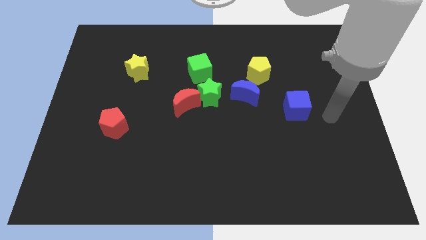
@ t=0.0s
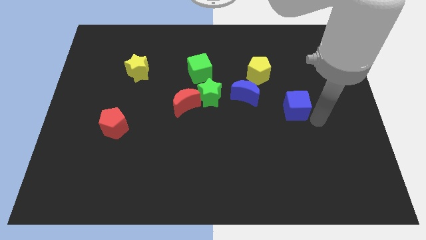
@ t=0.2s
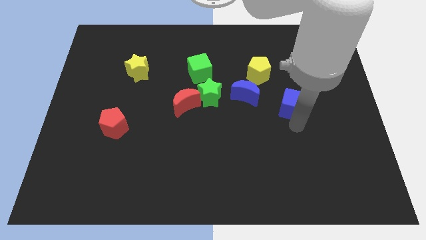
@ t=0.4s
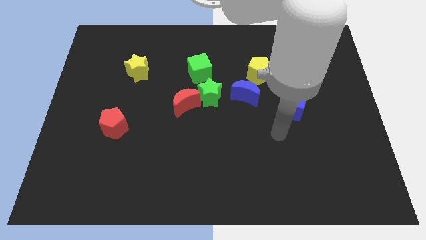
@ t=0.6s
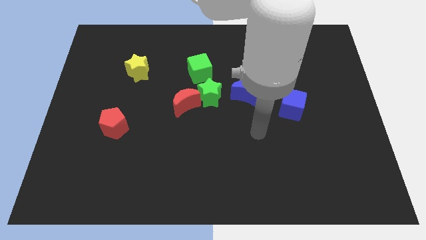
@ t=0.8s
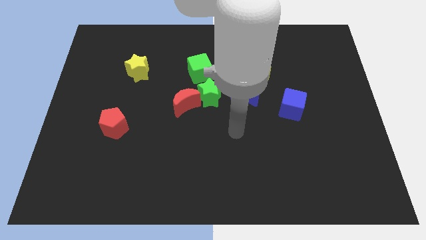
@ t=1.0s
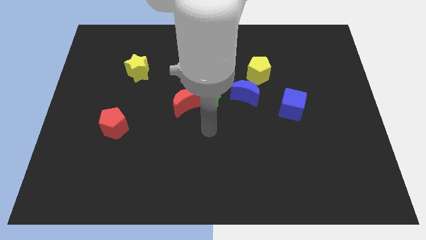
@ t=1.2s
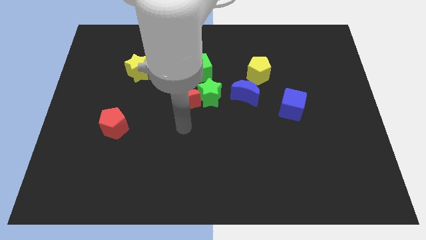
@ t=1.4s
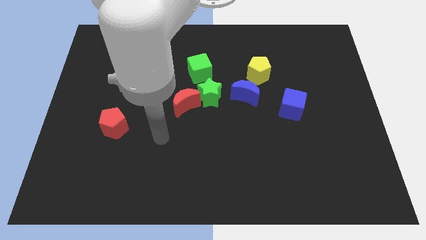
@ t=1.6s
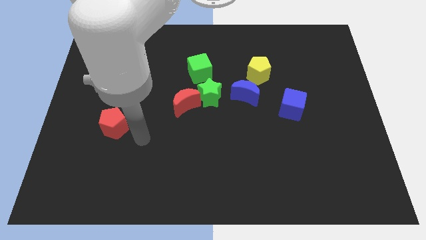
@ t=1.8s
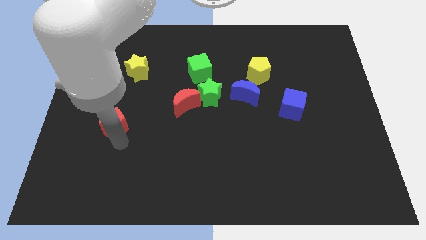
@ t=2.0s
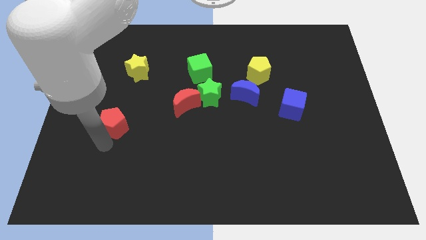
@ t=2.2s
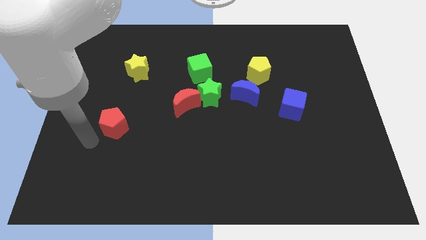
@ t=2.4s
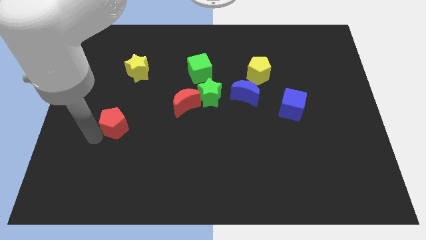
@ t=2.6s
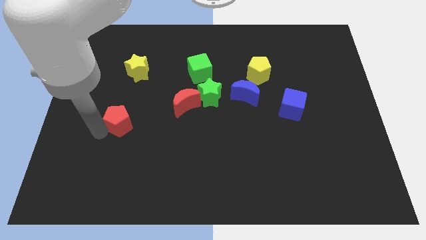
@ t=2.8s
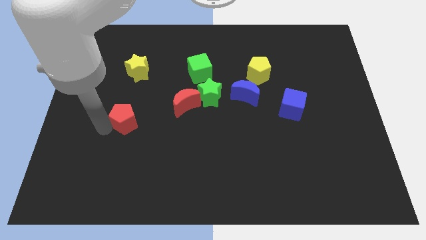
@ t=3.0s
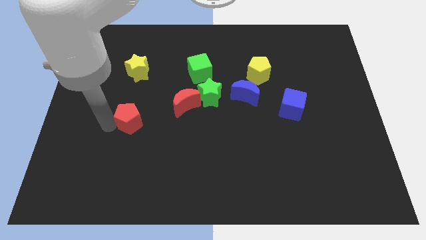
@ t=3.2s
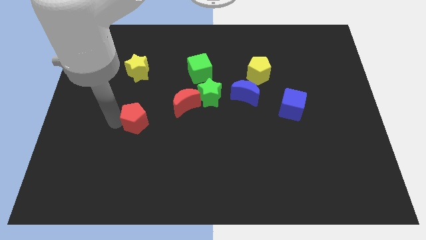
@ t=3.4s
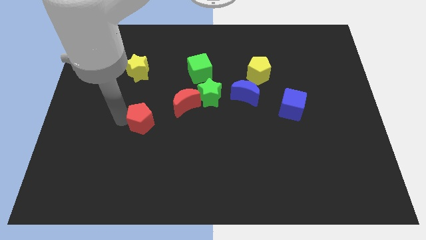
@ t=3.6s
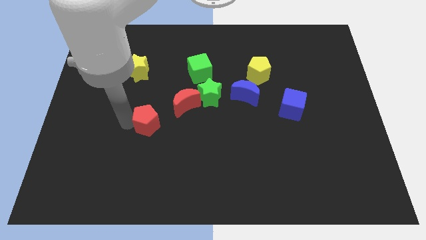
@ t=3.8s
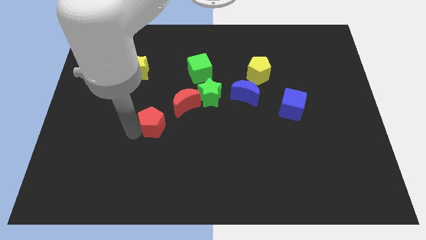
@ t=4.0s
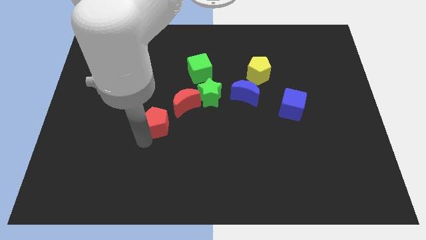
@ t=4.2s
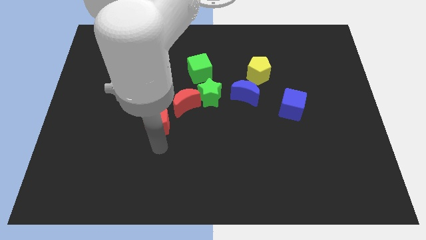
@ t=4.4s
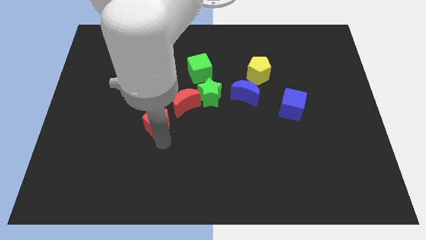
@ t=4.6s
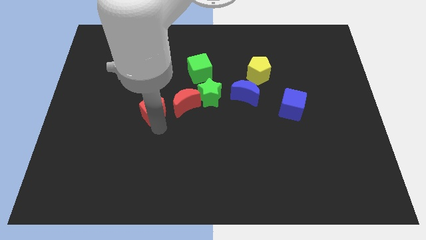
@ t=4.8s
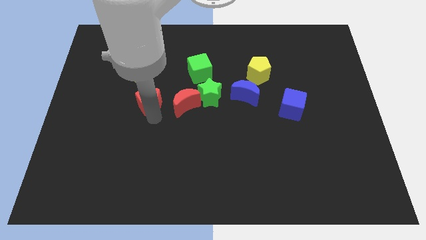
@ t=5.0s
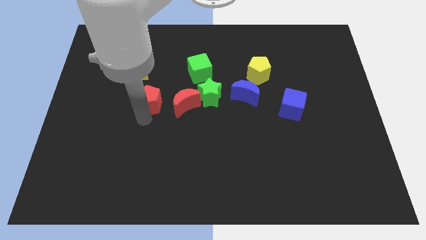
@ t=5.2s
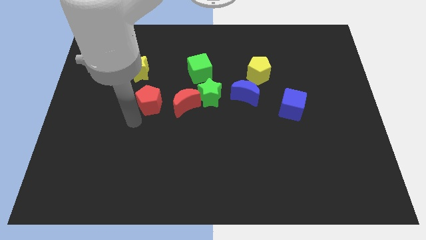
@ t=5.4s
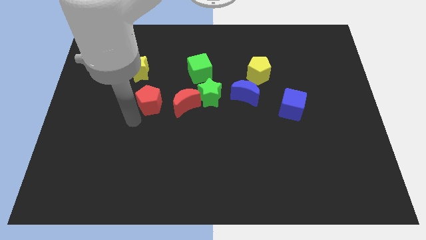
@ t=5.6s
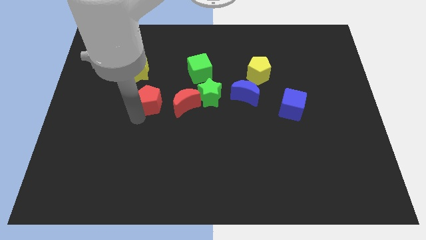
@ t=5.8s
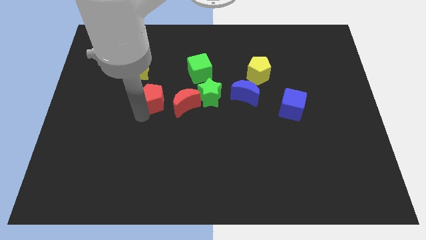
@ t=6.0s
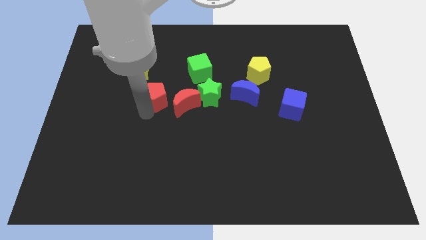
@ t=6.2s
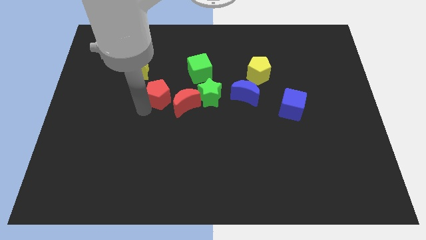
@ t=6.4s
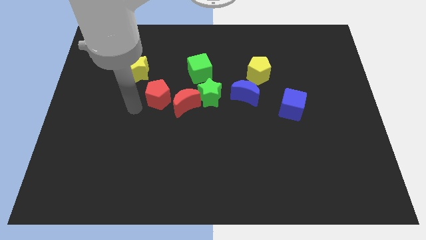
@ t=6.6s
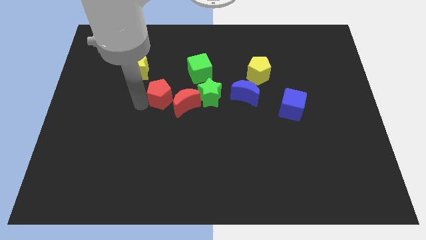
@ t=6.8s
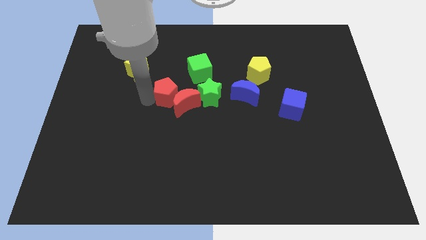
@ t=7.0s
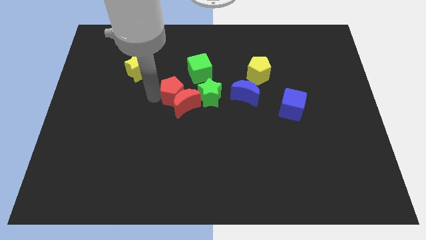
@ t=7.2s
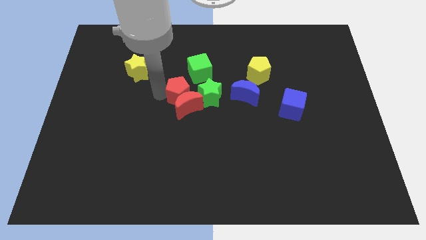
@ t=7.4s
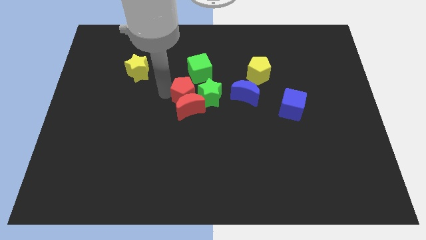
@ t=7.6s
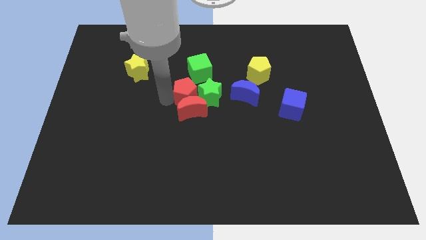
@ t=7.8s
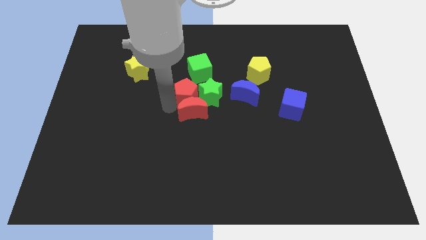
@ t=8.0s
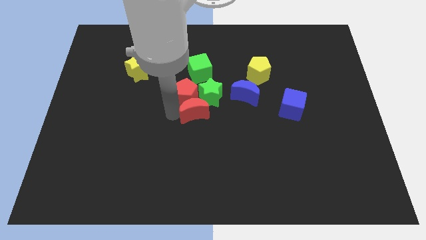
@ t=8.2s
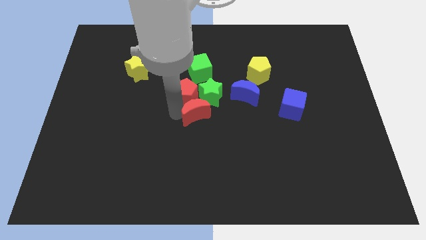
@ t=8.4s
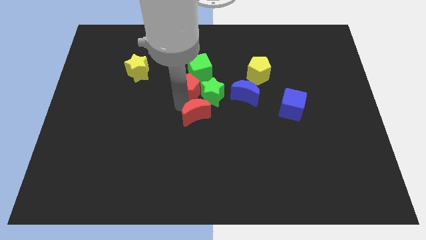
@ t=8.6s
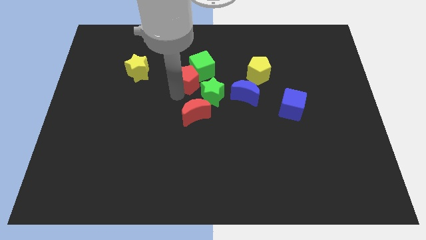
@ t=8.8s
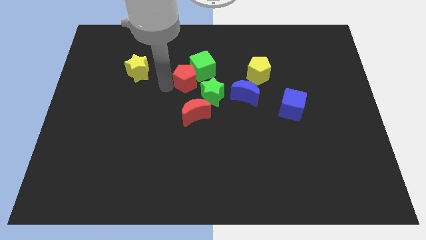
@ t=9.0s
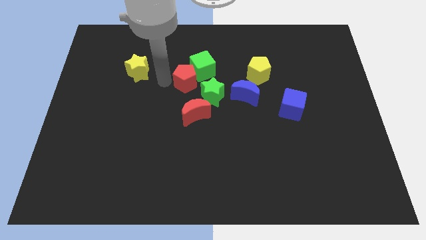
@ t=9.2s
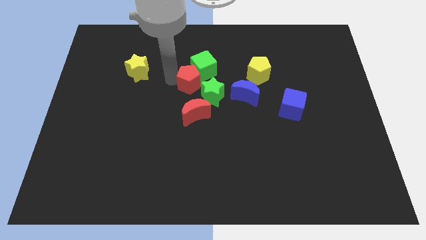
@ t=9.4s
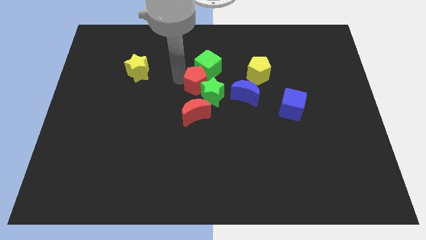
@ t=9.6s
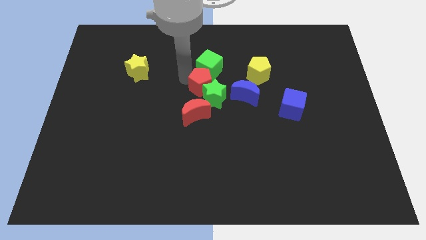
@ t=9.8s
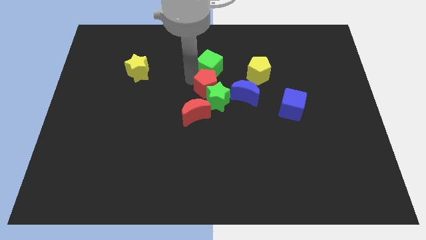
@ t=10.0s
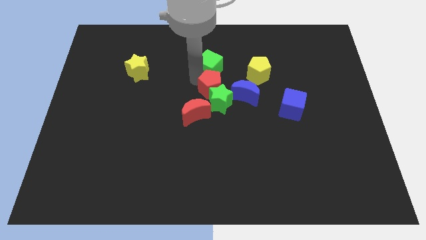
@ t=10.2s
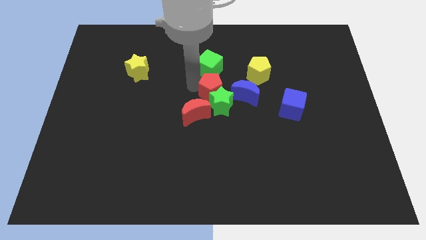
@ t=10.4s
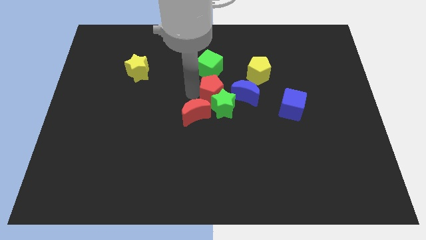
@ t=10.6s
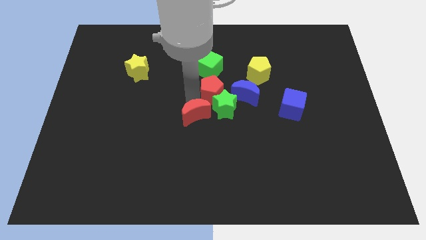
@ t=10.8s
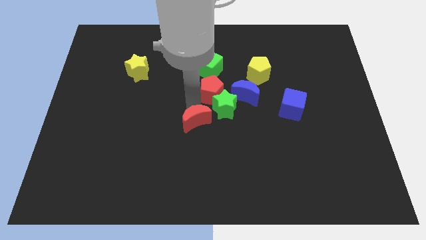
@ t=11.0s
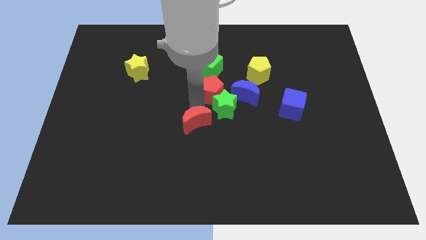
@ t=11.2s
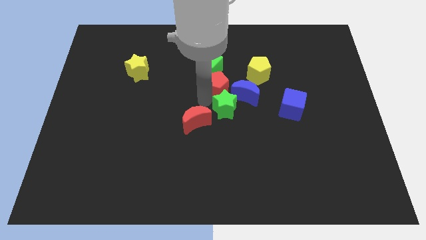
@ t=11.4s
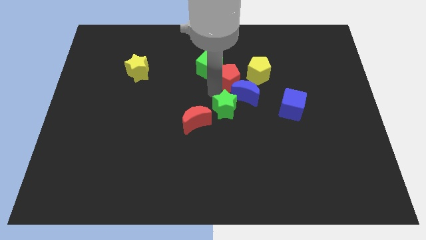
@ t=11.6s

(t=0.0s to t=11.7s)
put the red pentagon to the top of the blue moon
